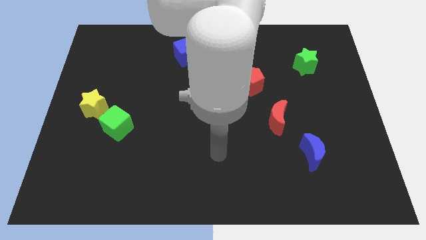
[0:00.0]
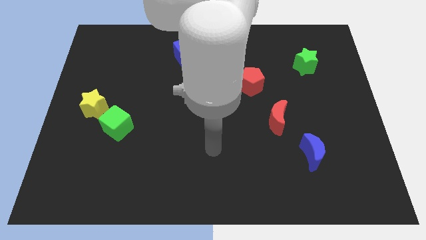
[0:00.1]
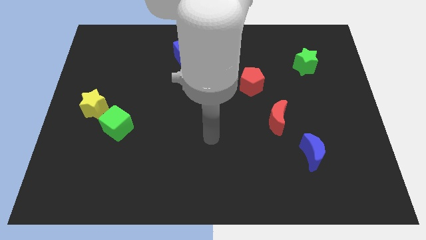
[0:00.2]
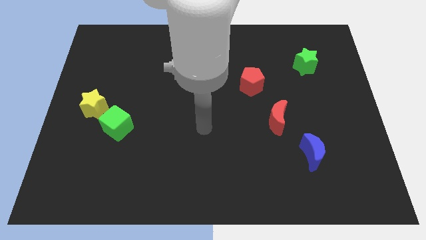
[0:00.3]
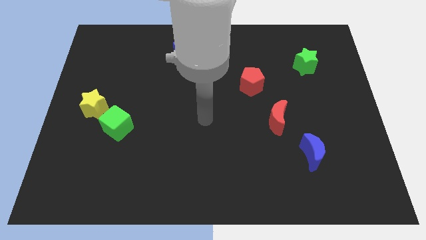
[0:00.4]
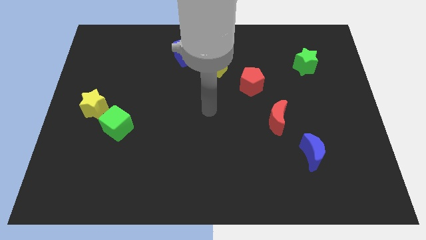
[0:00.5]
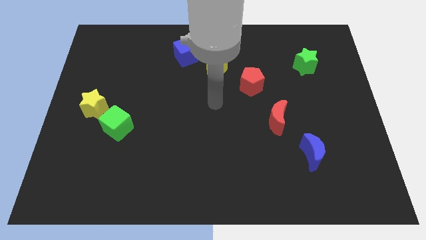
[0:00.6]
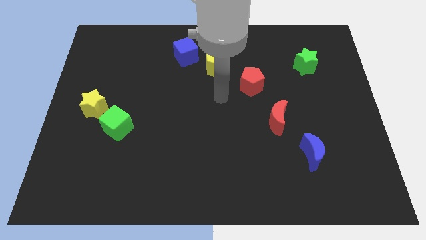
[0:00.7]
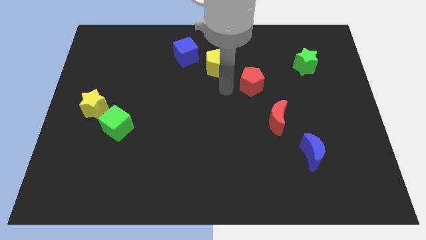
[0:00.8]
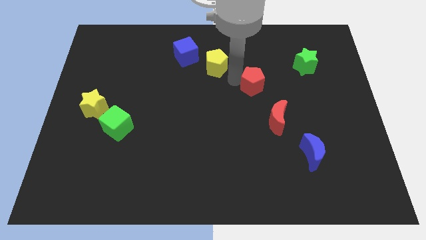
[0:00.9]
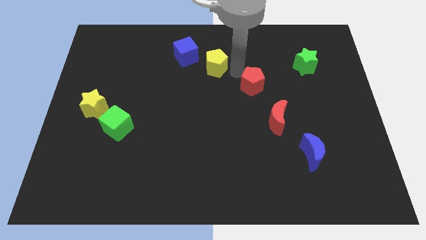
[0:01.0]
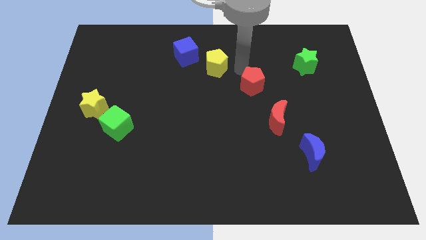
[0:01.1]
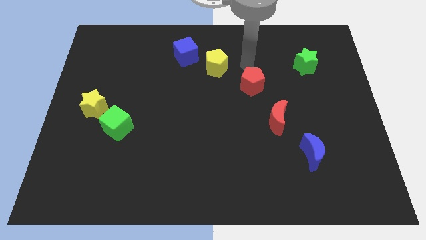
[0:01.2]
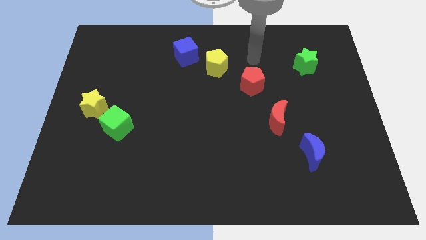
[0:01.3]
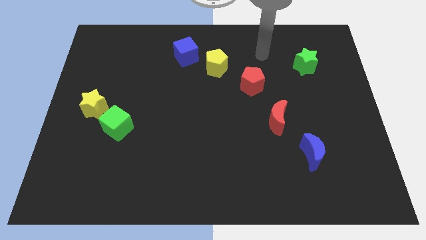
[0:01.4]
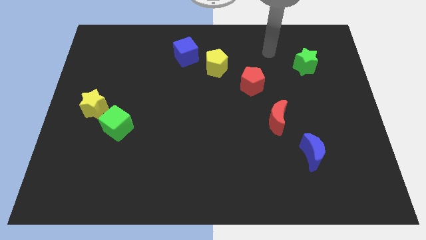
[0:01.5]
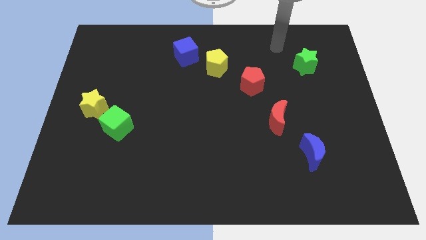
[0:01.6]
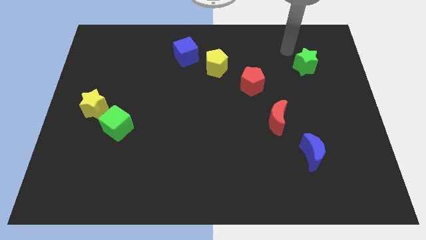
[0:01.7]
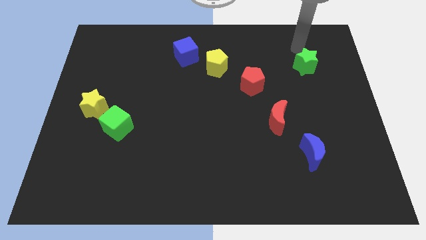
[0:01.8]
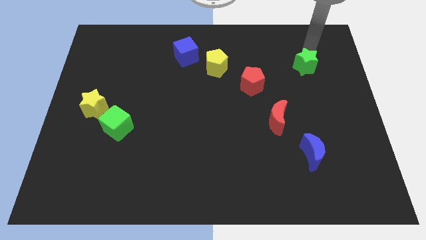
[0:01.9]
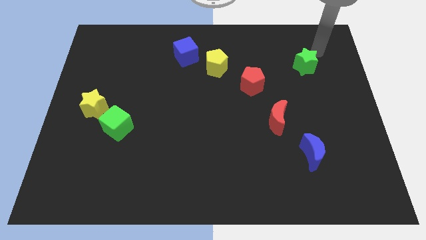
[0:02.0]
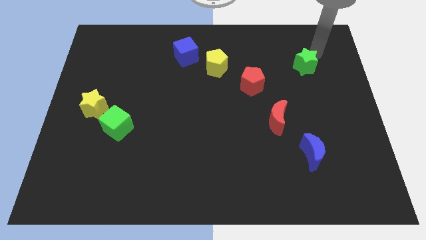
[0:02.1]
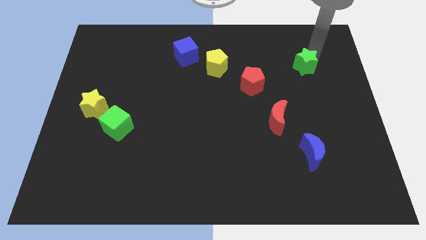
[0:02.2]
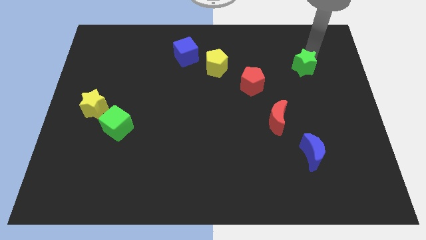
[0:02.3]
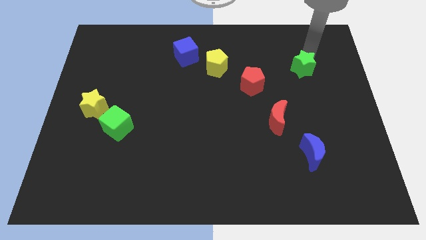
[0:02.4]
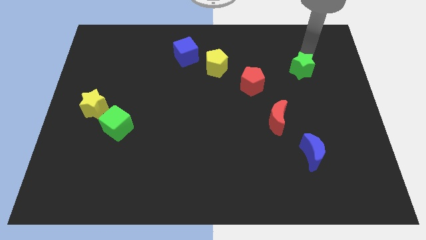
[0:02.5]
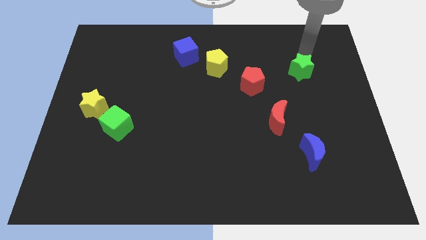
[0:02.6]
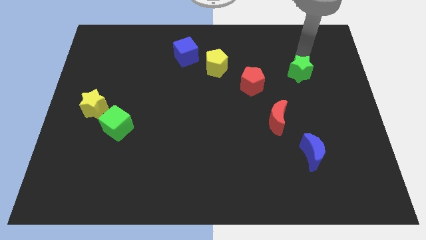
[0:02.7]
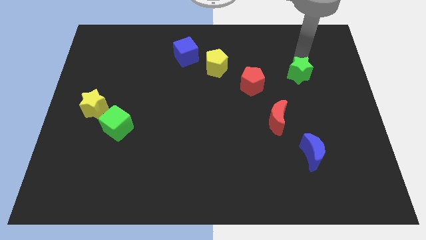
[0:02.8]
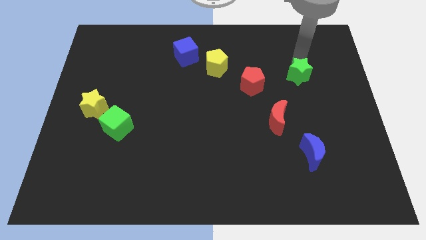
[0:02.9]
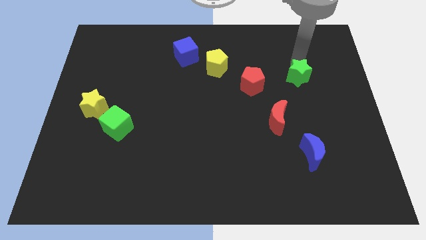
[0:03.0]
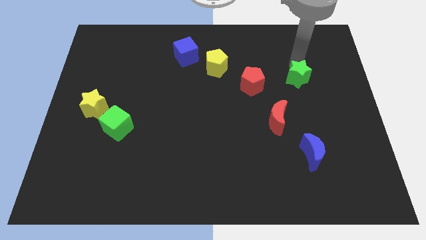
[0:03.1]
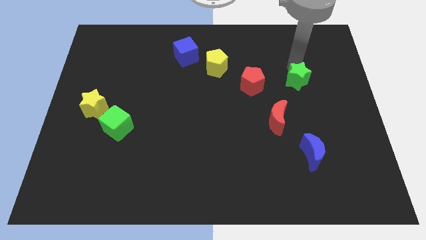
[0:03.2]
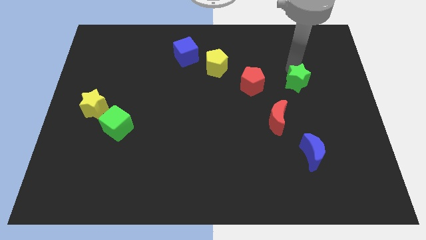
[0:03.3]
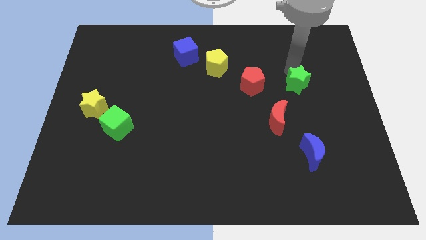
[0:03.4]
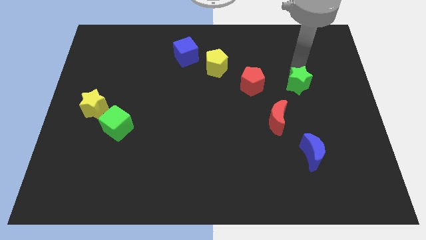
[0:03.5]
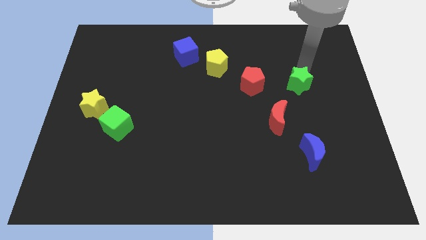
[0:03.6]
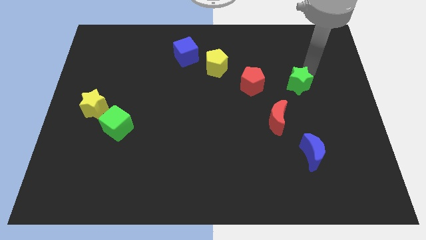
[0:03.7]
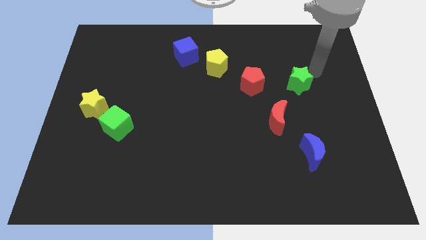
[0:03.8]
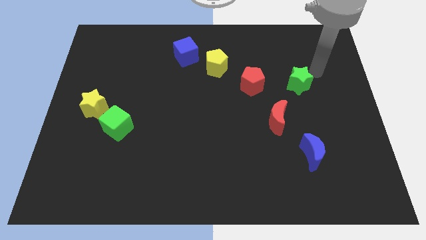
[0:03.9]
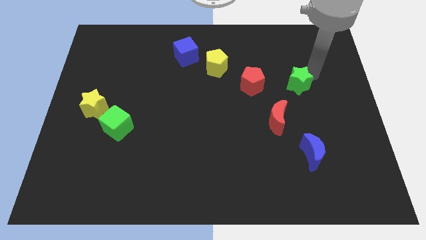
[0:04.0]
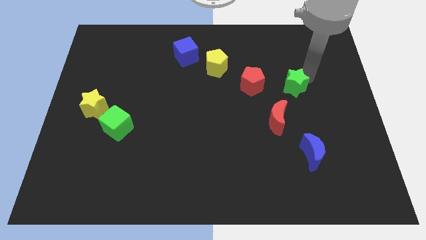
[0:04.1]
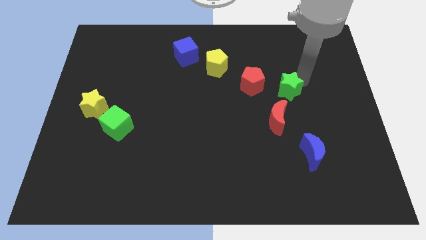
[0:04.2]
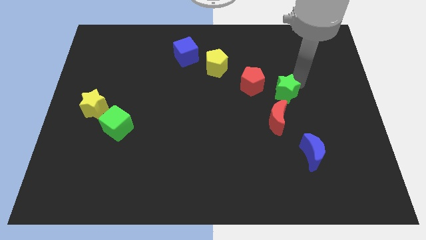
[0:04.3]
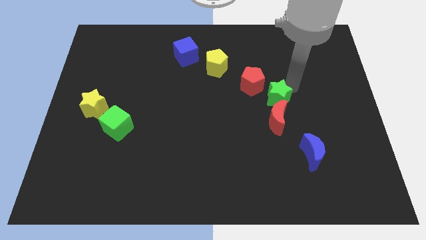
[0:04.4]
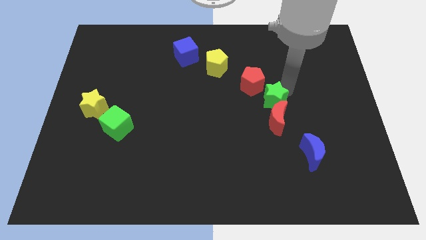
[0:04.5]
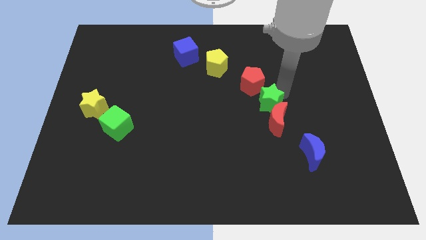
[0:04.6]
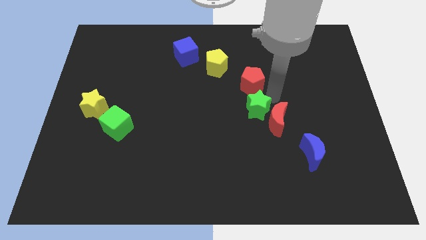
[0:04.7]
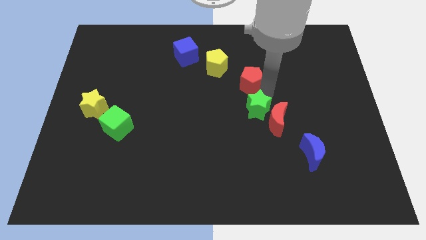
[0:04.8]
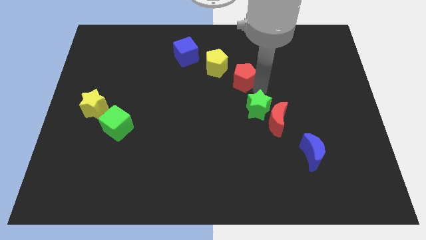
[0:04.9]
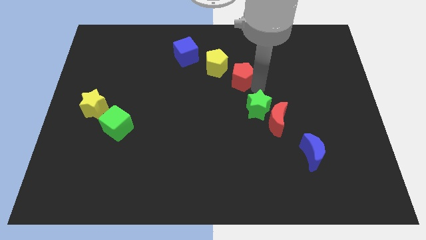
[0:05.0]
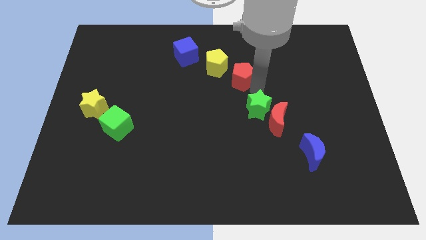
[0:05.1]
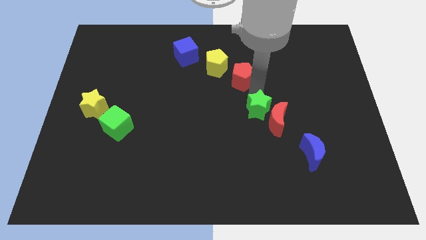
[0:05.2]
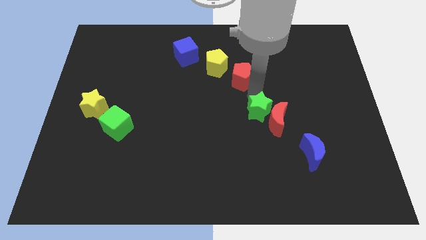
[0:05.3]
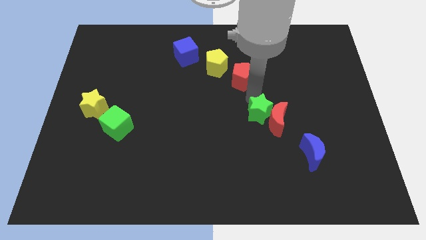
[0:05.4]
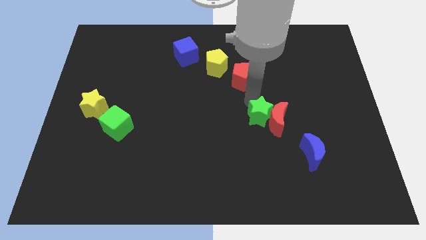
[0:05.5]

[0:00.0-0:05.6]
put the green star to the bottom left side of the red moon

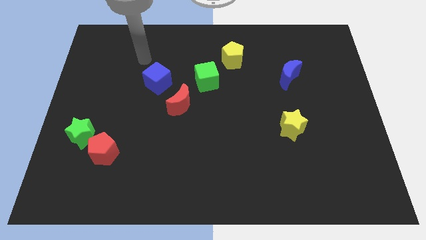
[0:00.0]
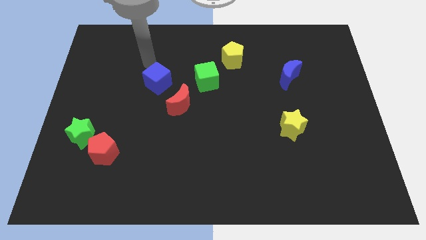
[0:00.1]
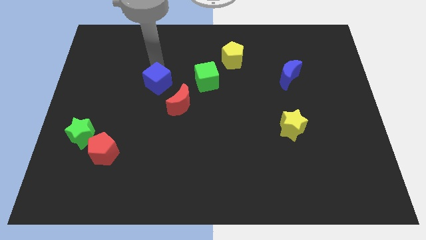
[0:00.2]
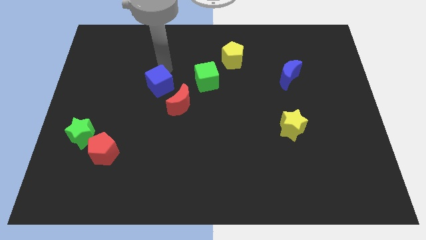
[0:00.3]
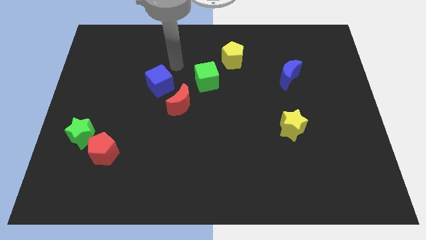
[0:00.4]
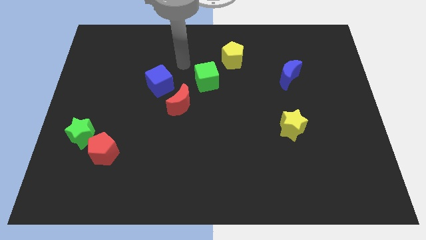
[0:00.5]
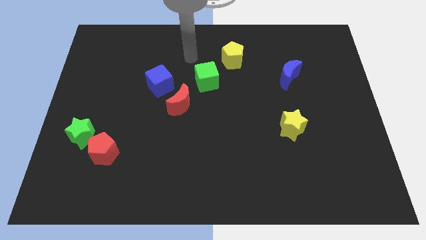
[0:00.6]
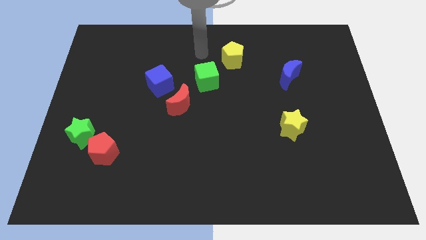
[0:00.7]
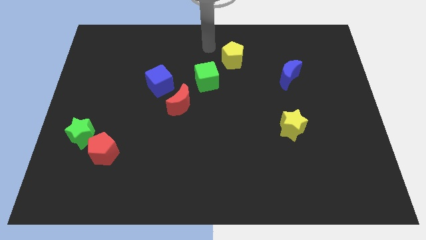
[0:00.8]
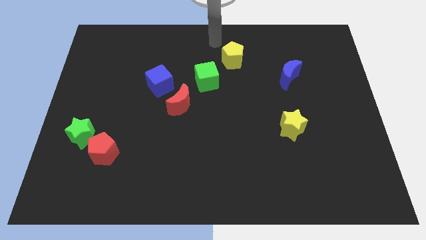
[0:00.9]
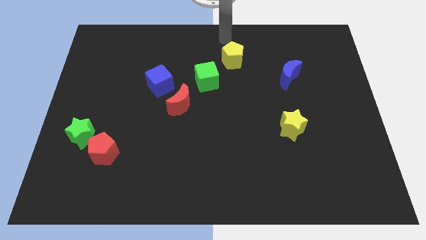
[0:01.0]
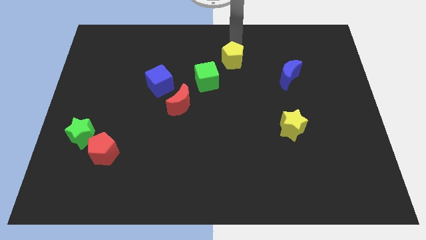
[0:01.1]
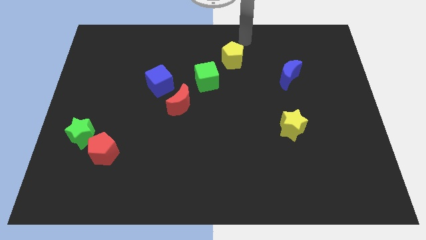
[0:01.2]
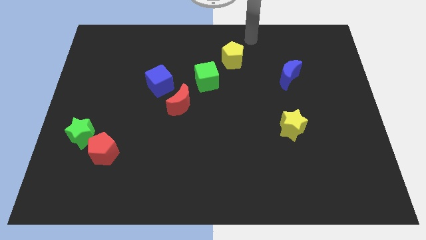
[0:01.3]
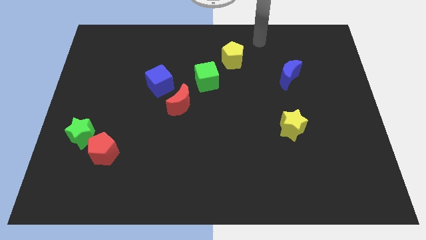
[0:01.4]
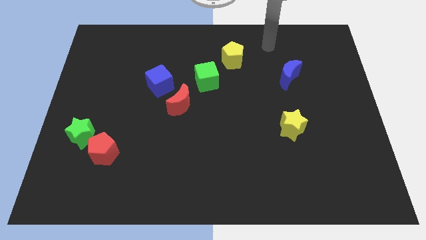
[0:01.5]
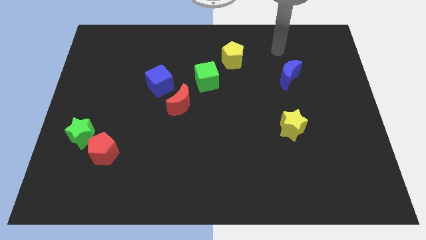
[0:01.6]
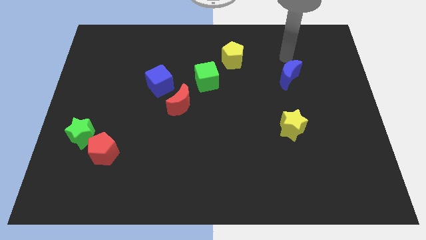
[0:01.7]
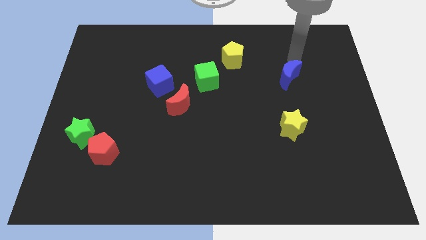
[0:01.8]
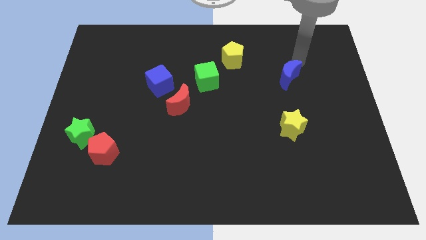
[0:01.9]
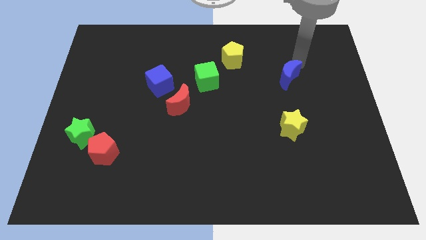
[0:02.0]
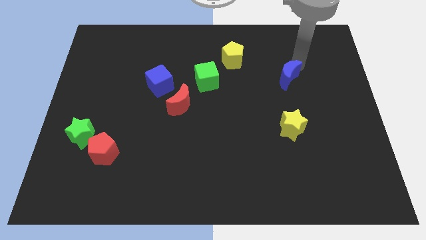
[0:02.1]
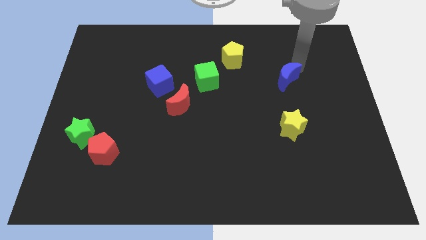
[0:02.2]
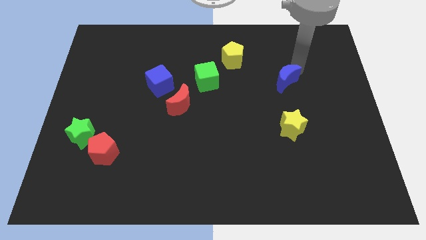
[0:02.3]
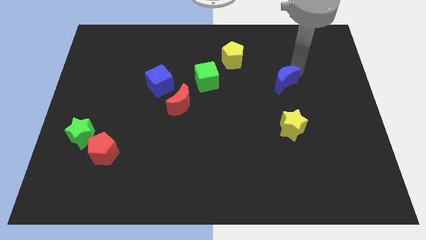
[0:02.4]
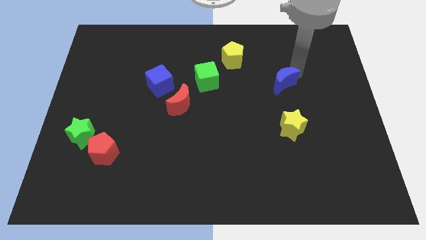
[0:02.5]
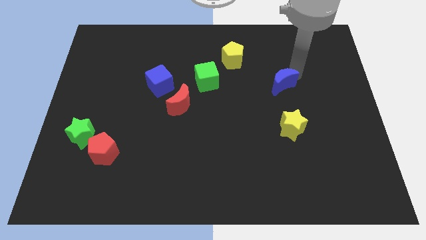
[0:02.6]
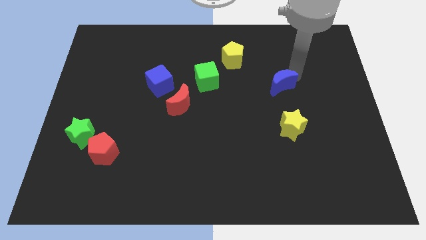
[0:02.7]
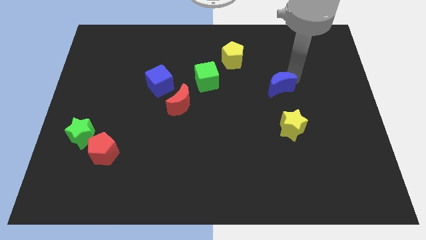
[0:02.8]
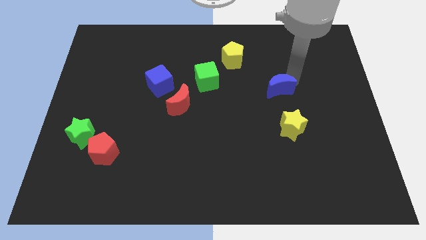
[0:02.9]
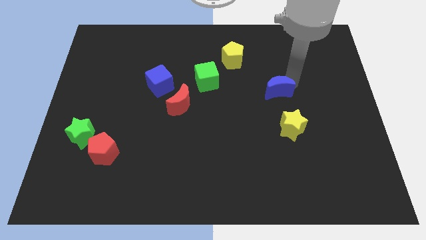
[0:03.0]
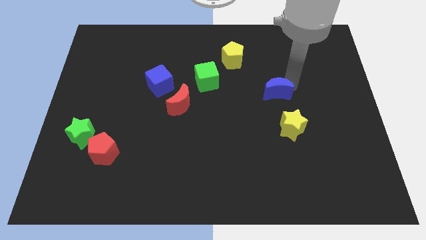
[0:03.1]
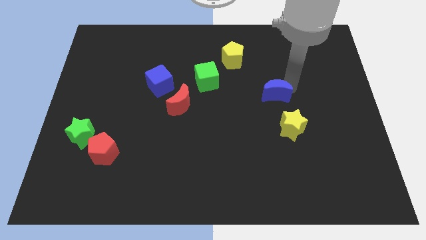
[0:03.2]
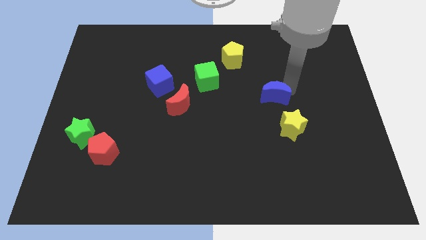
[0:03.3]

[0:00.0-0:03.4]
move the blue moon diagonally up and to the left of the yellow star
